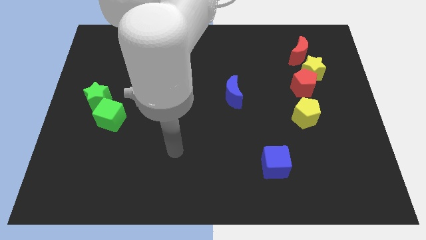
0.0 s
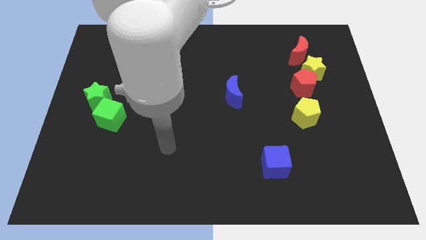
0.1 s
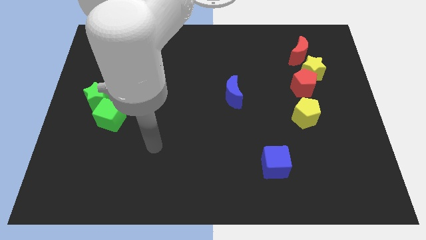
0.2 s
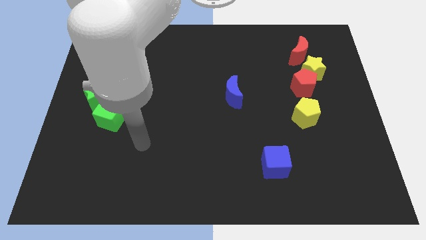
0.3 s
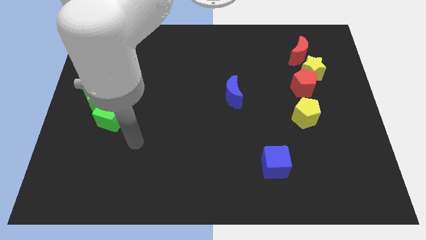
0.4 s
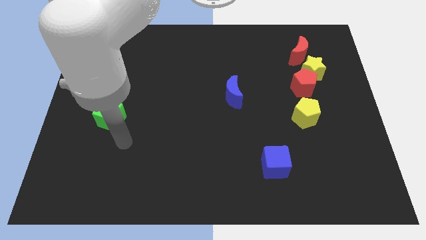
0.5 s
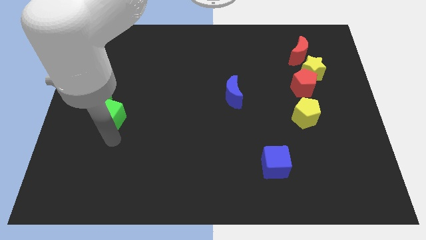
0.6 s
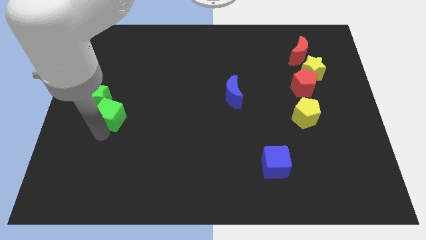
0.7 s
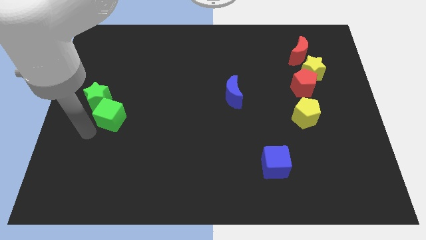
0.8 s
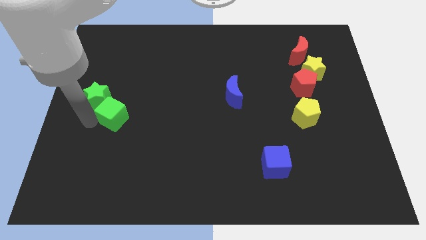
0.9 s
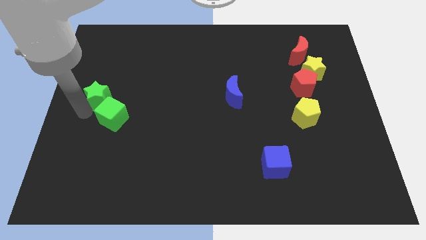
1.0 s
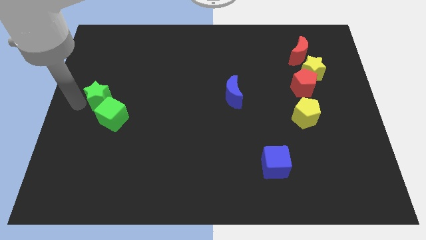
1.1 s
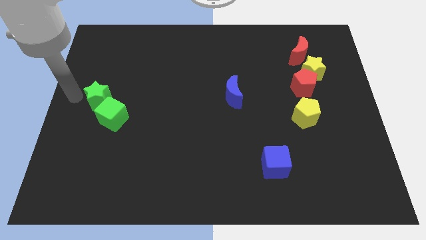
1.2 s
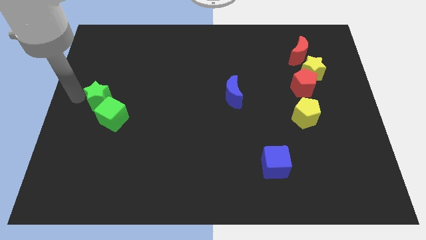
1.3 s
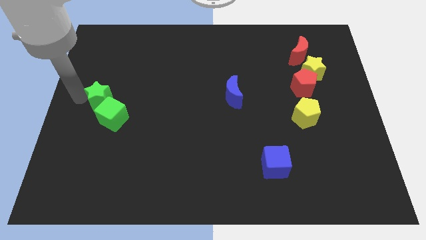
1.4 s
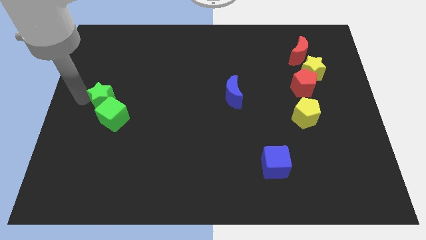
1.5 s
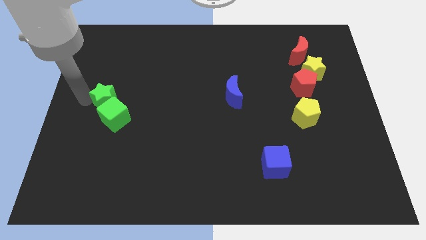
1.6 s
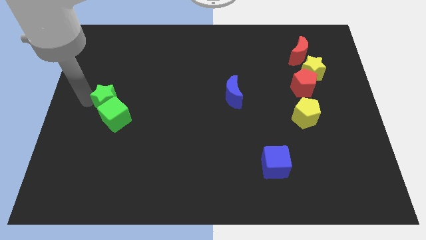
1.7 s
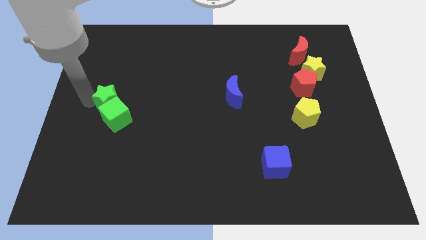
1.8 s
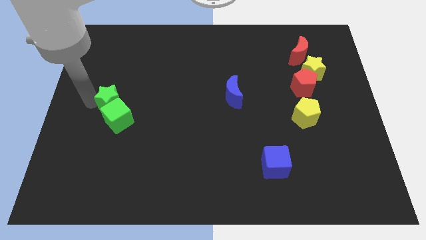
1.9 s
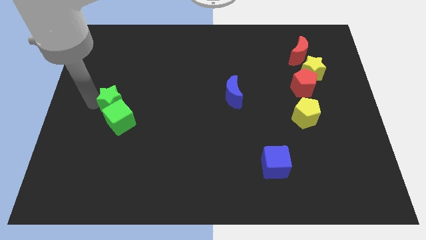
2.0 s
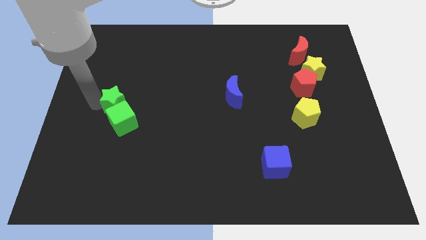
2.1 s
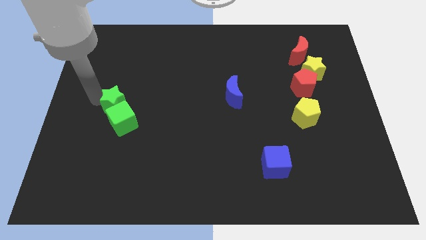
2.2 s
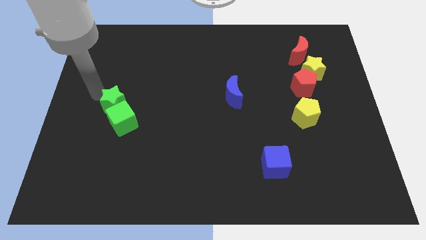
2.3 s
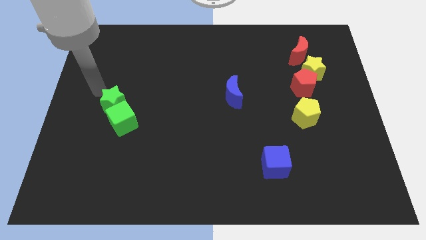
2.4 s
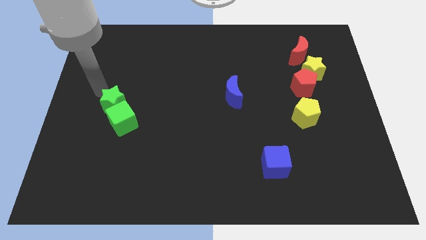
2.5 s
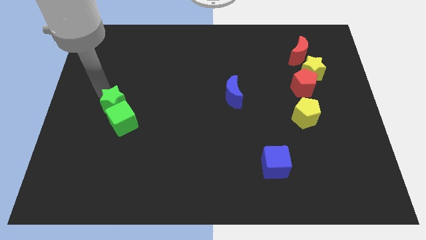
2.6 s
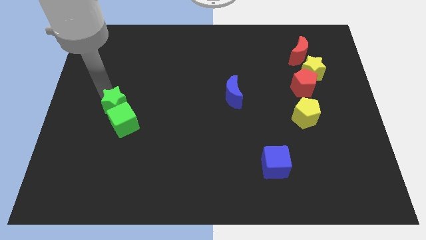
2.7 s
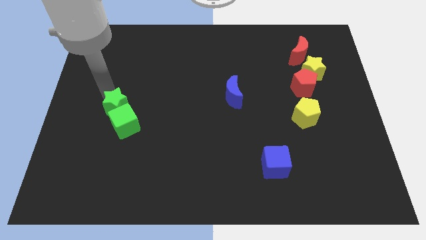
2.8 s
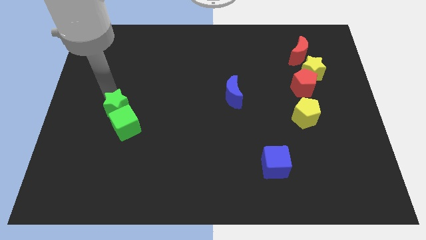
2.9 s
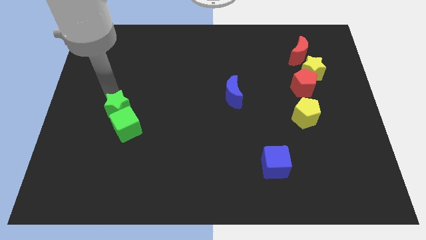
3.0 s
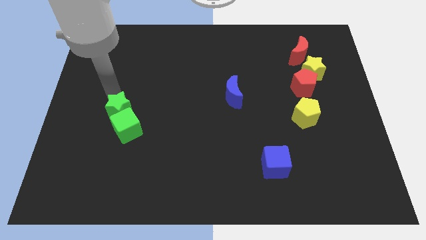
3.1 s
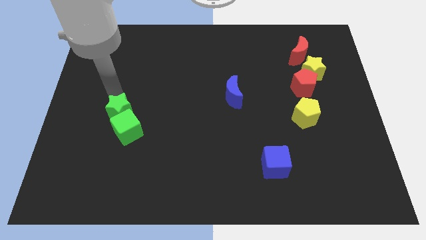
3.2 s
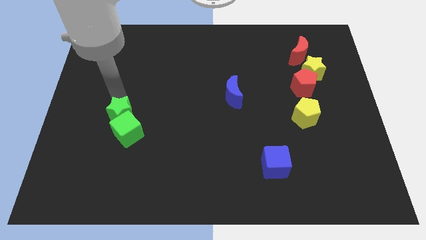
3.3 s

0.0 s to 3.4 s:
move the green star a bit down and to the right

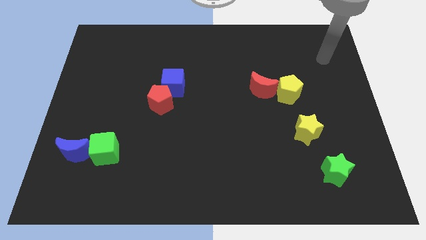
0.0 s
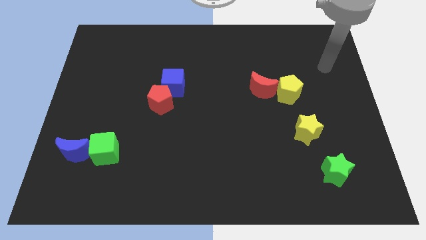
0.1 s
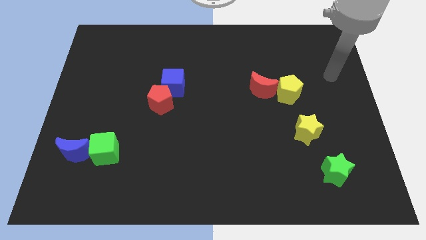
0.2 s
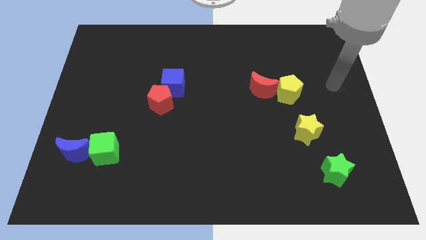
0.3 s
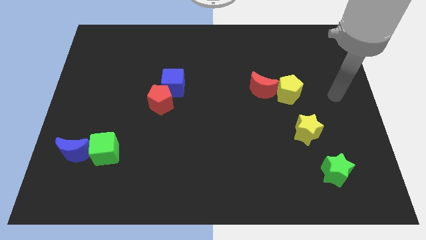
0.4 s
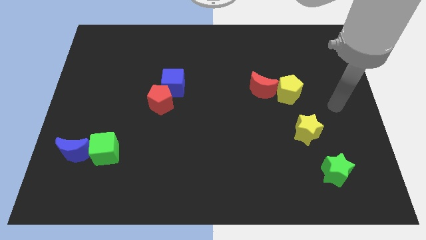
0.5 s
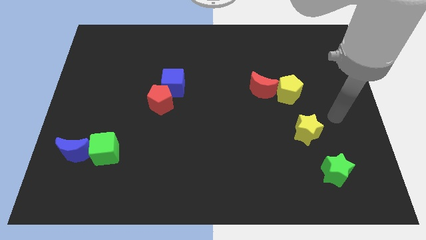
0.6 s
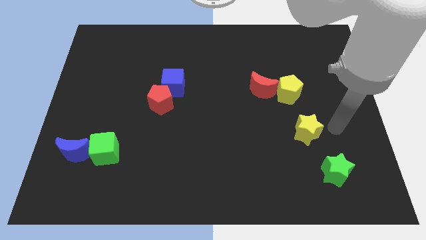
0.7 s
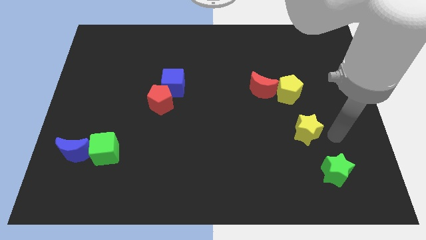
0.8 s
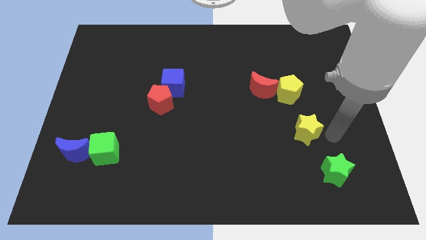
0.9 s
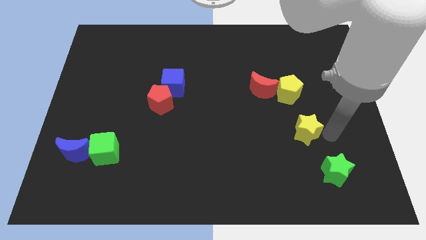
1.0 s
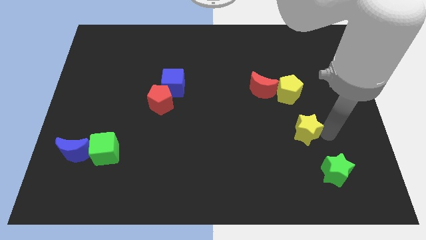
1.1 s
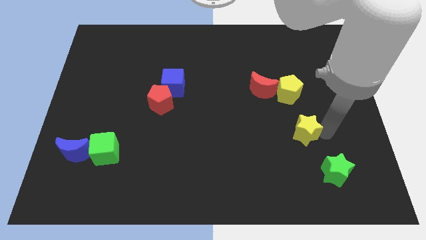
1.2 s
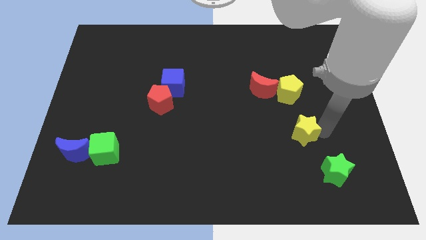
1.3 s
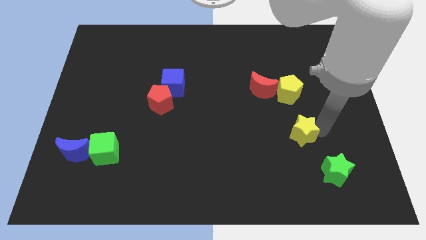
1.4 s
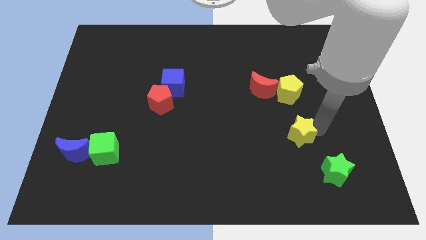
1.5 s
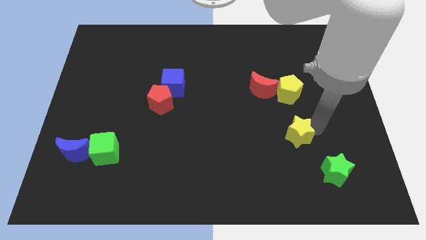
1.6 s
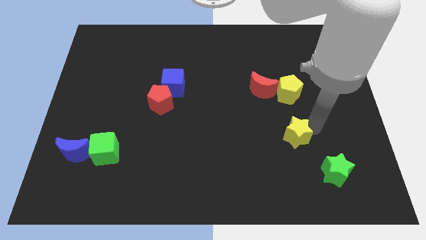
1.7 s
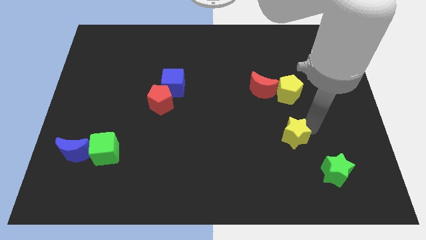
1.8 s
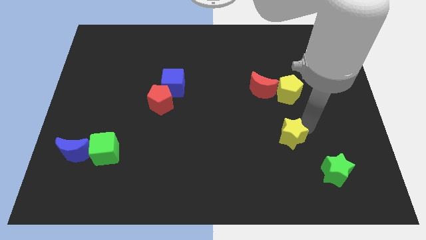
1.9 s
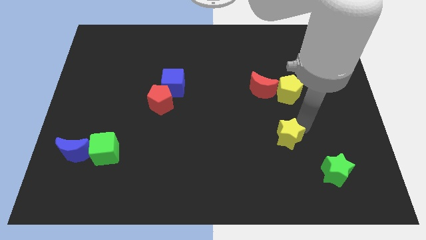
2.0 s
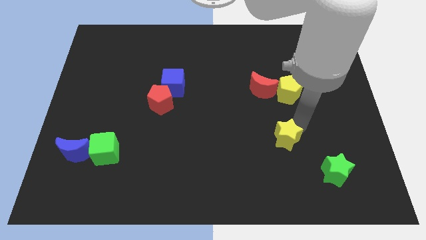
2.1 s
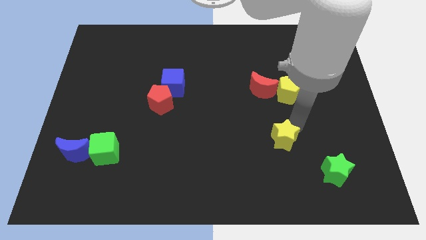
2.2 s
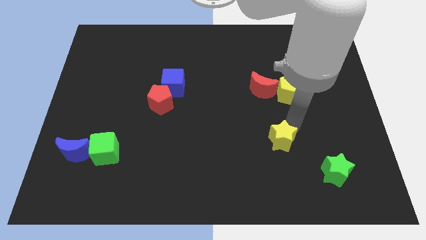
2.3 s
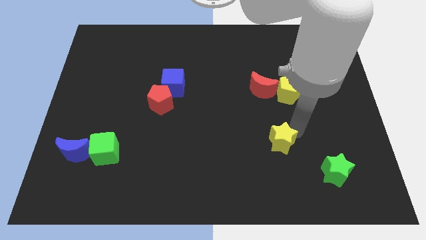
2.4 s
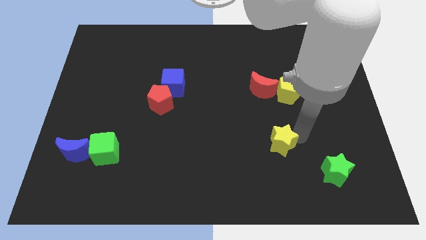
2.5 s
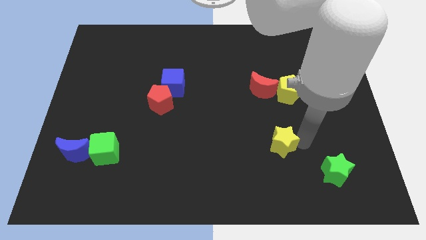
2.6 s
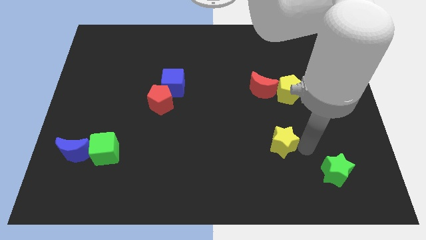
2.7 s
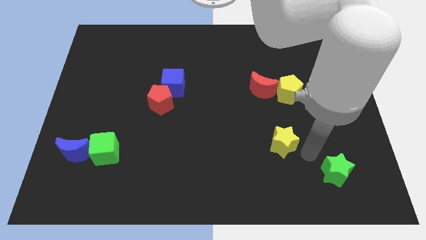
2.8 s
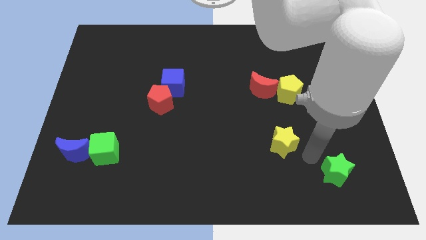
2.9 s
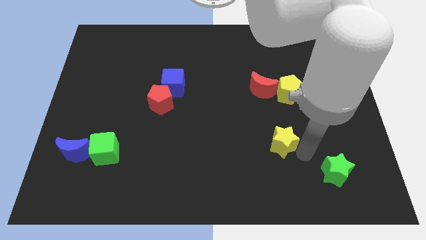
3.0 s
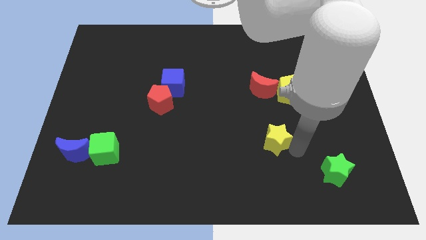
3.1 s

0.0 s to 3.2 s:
move the yellow star a little bit to the left

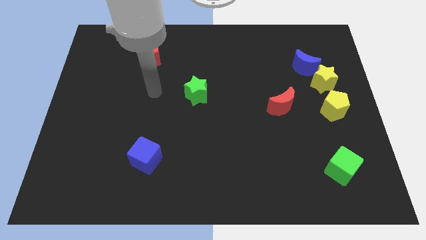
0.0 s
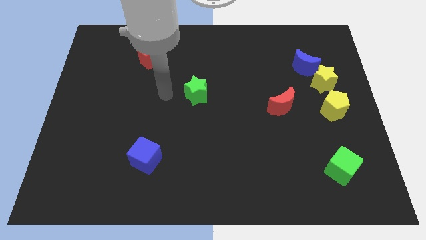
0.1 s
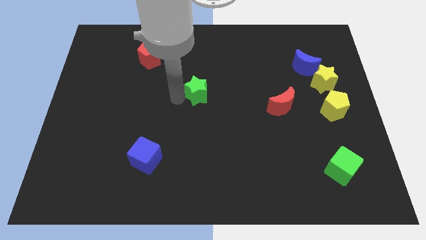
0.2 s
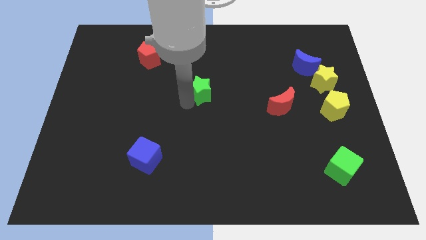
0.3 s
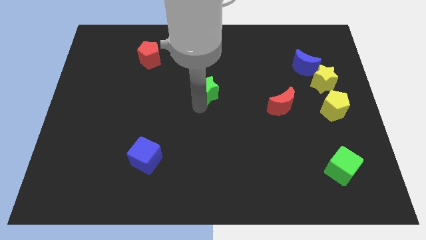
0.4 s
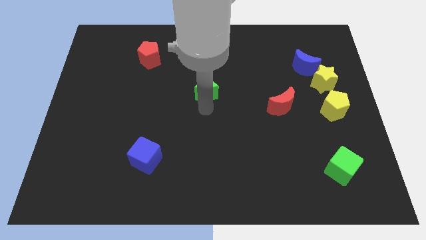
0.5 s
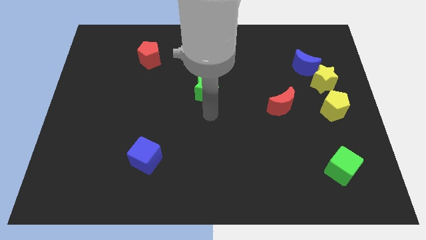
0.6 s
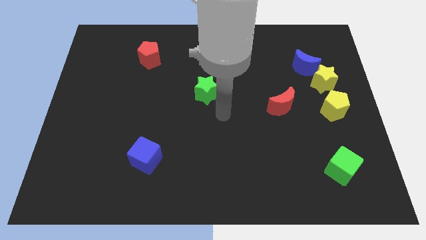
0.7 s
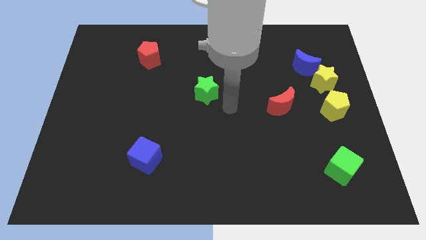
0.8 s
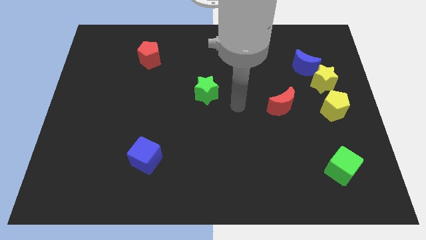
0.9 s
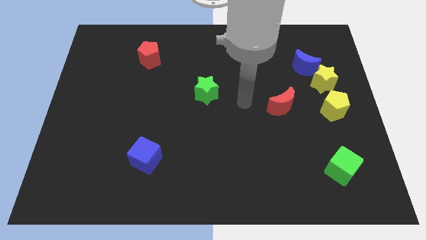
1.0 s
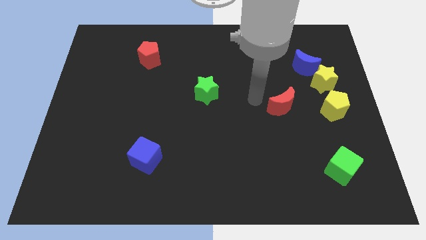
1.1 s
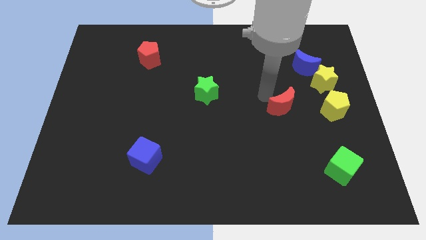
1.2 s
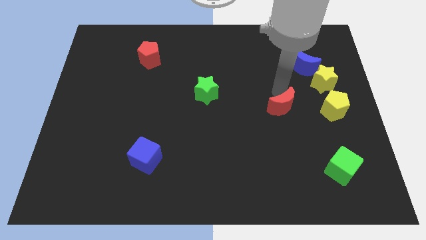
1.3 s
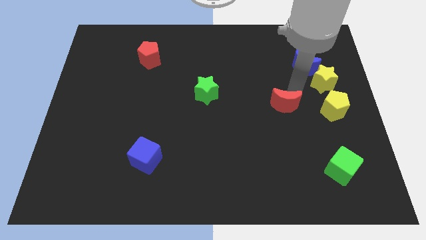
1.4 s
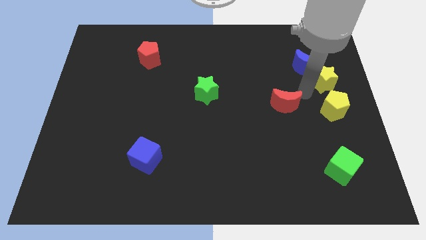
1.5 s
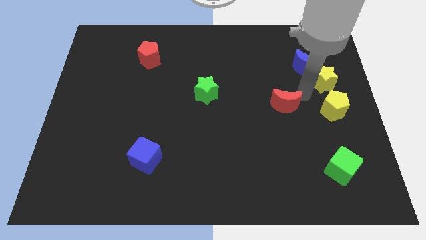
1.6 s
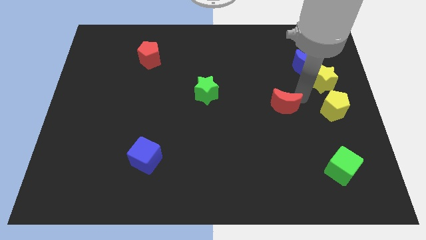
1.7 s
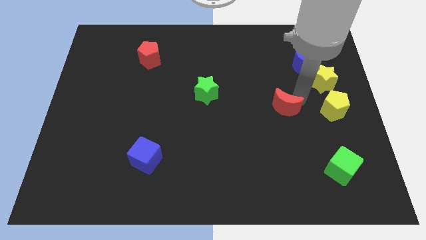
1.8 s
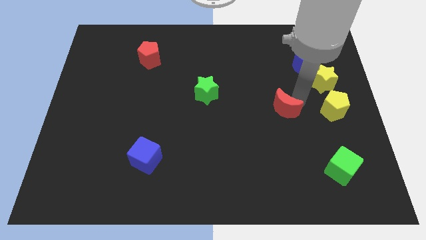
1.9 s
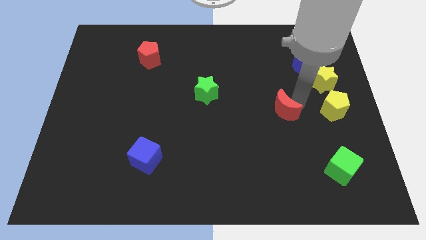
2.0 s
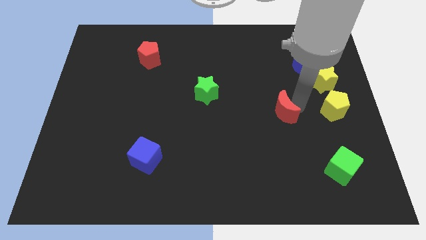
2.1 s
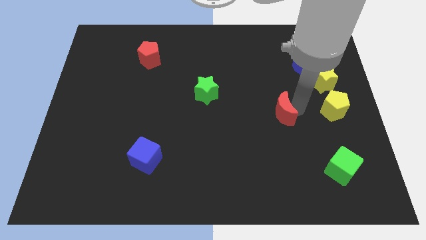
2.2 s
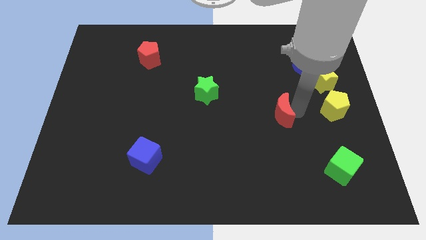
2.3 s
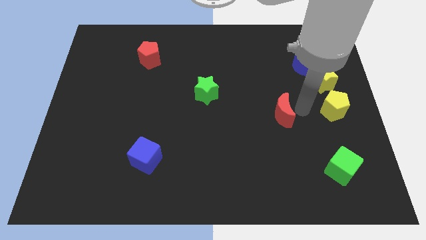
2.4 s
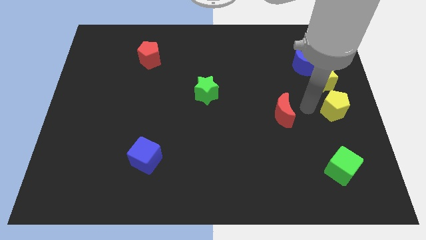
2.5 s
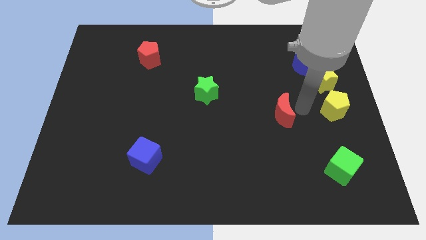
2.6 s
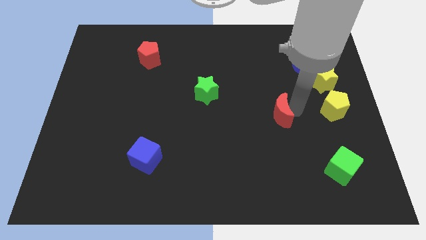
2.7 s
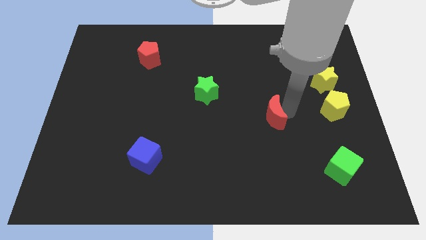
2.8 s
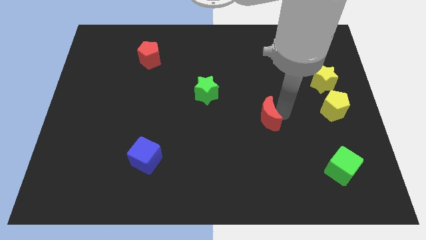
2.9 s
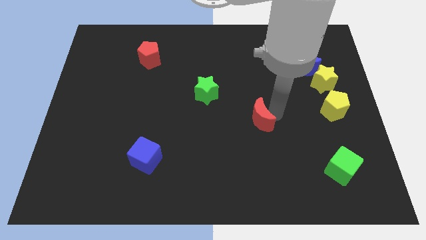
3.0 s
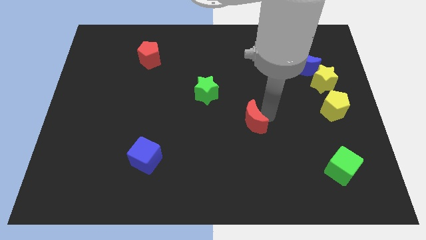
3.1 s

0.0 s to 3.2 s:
push the red moon down and left diagonally slightly
